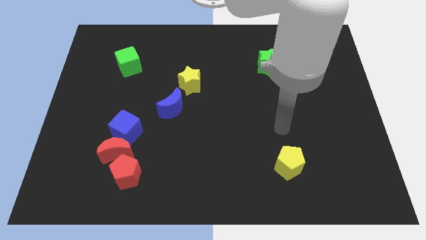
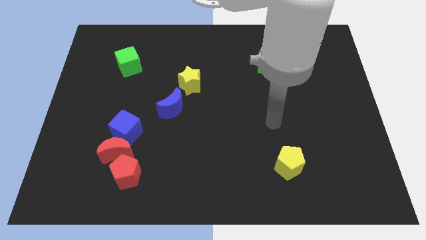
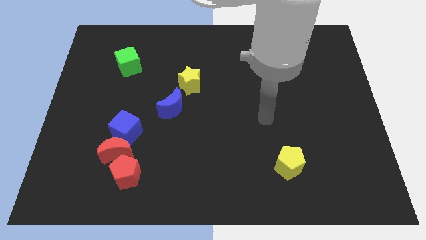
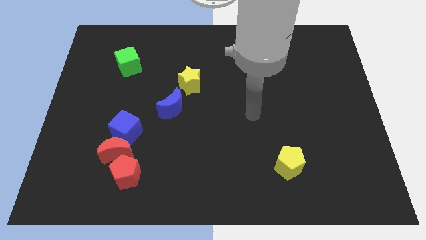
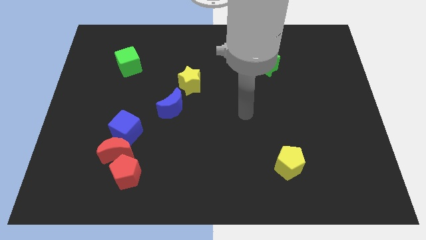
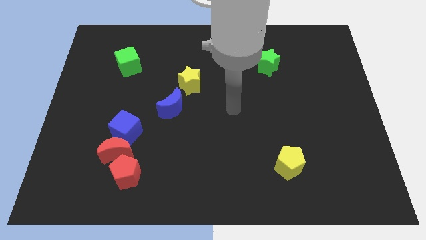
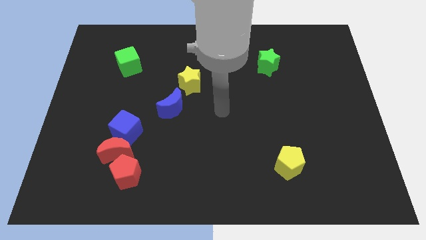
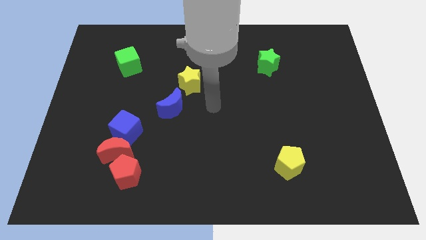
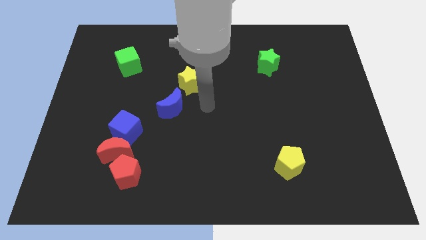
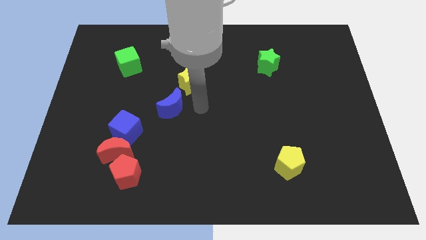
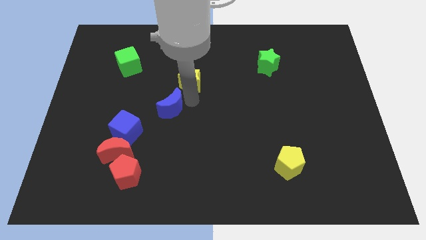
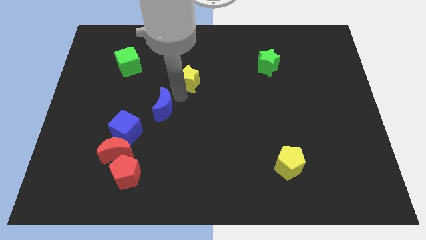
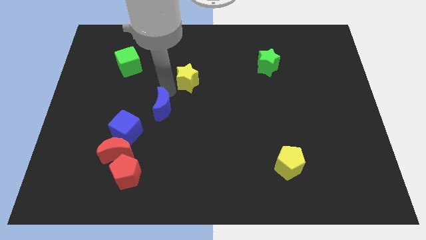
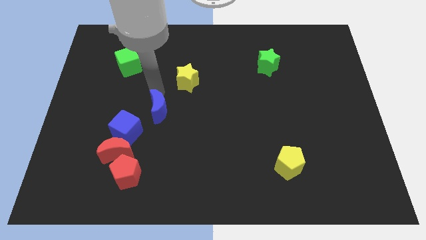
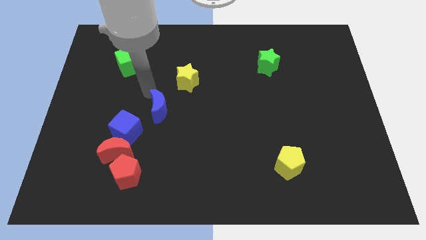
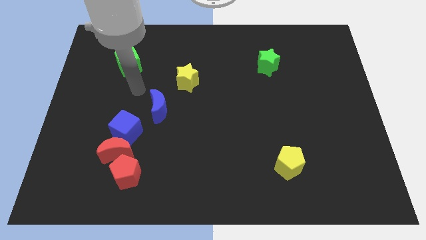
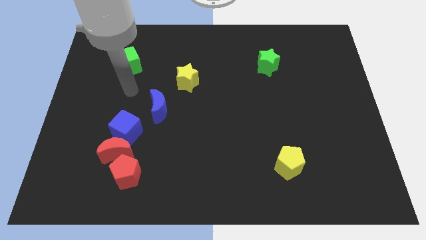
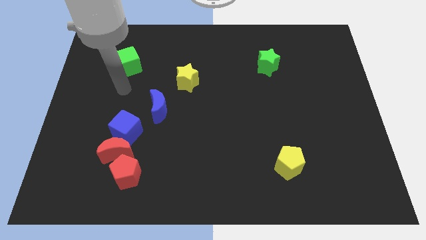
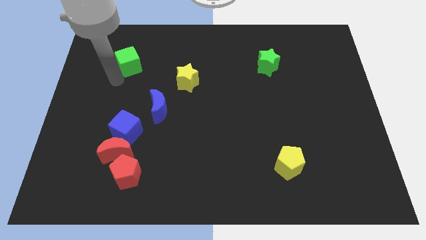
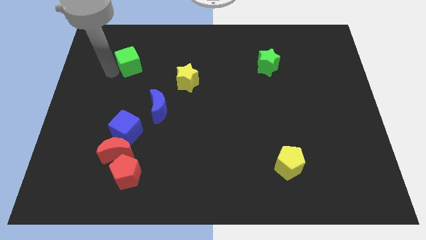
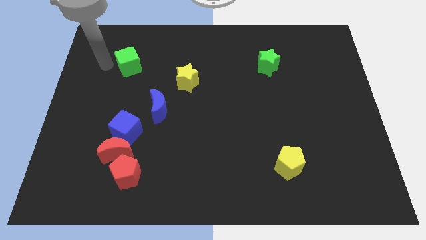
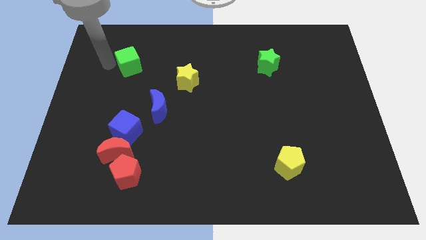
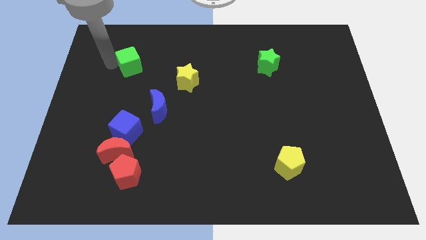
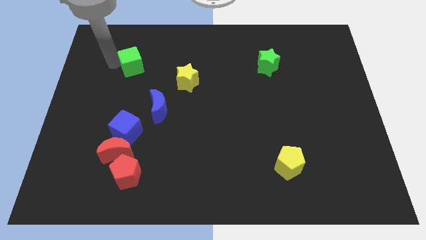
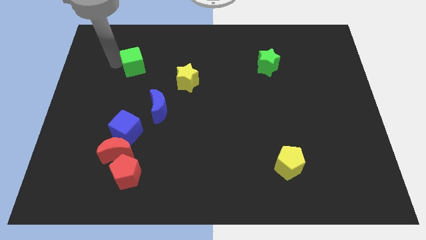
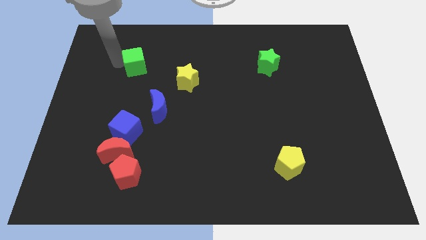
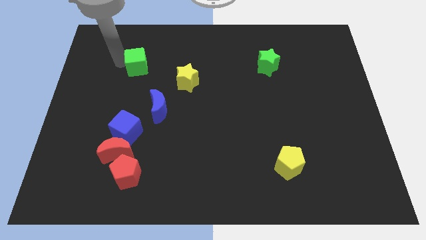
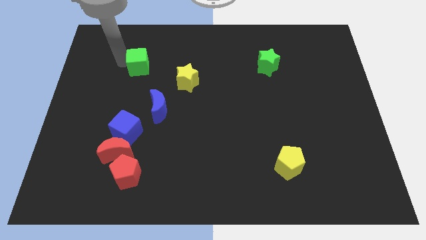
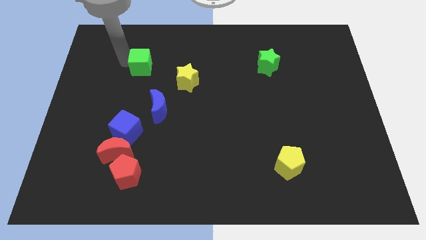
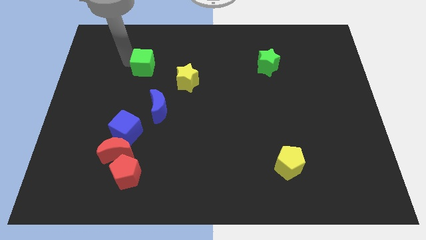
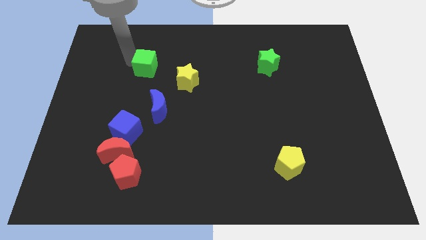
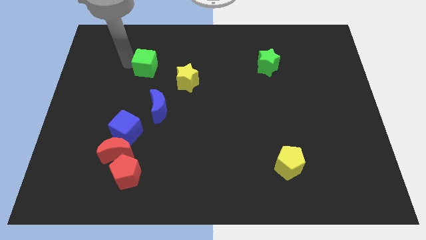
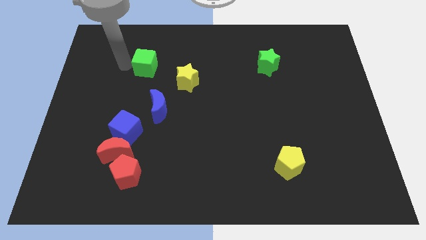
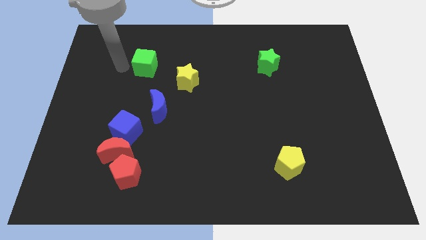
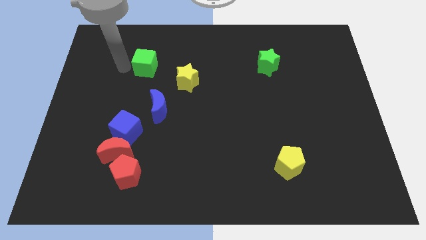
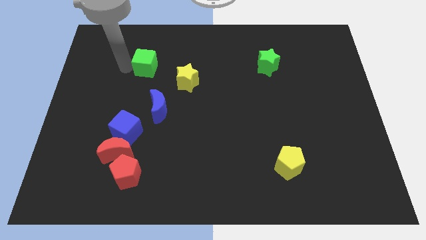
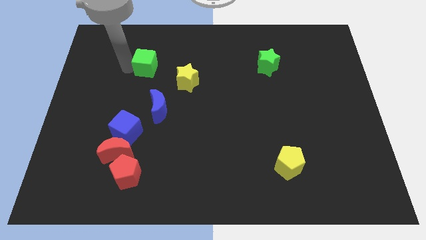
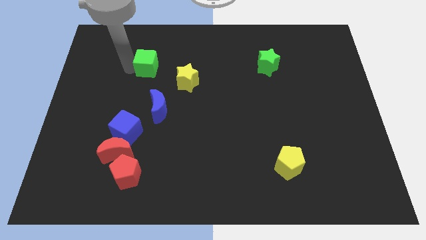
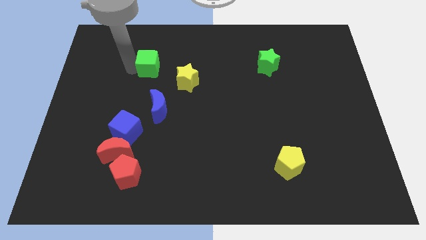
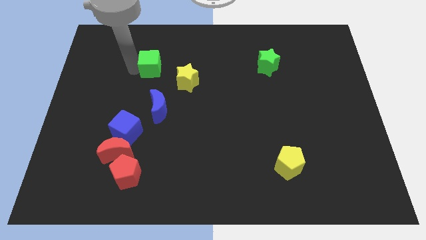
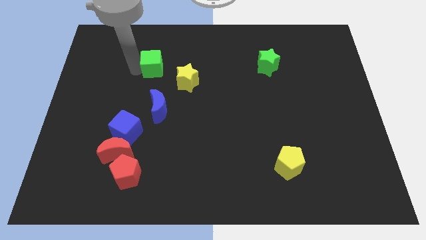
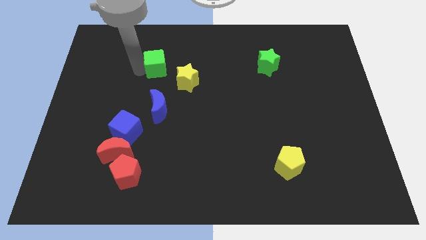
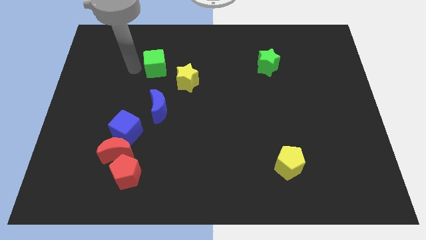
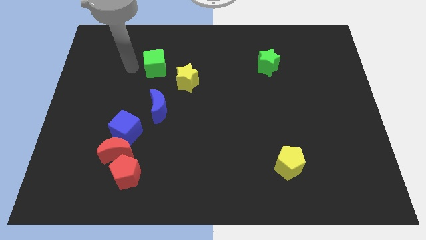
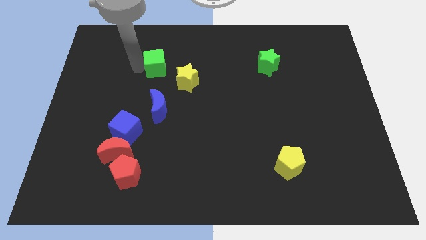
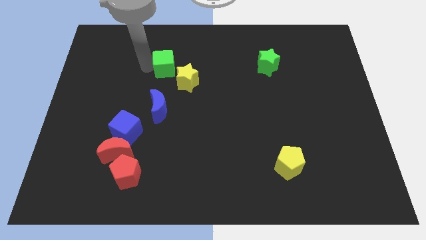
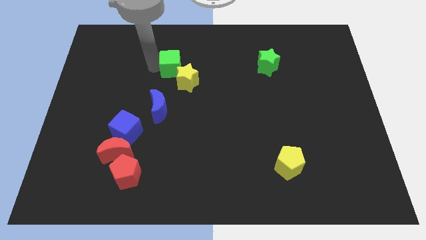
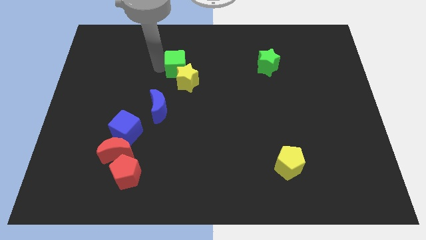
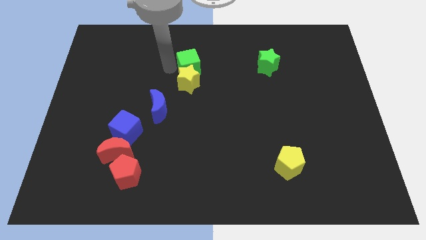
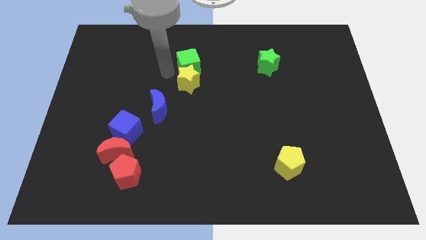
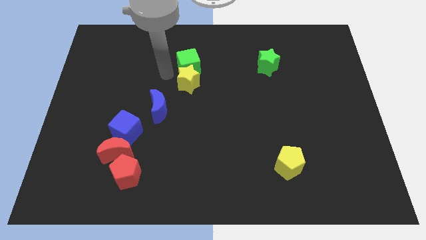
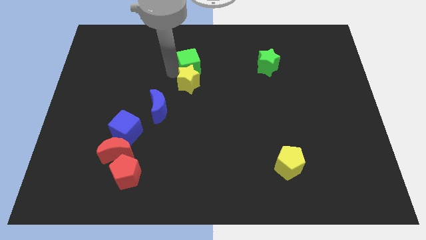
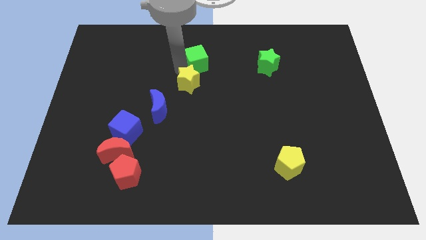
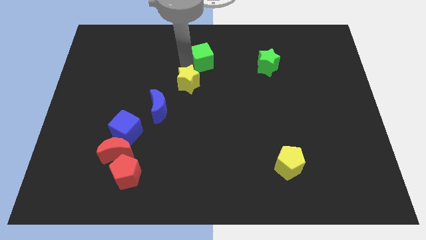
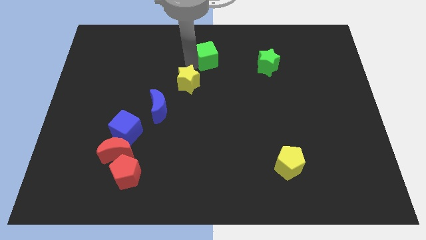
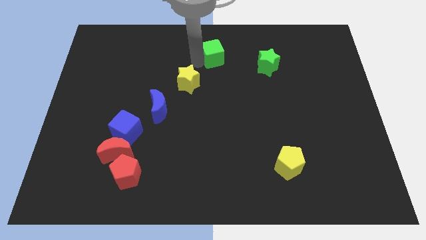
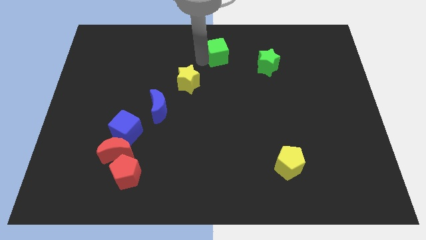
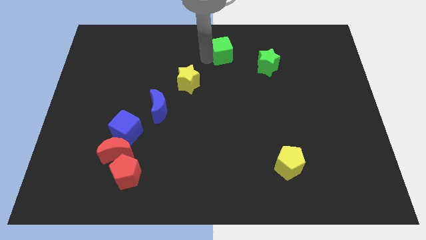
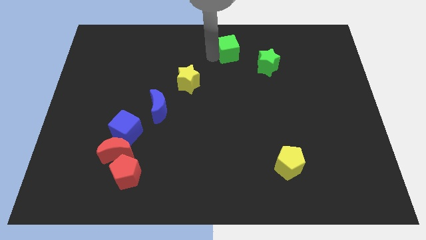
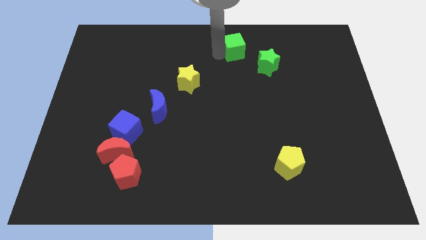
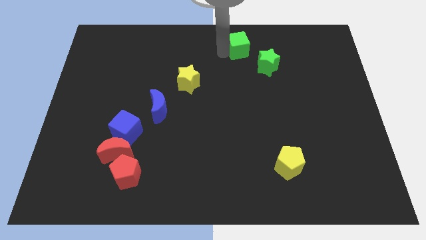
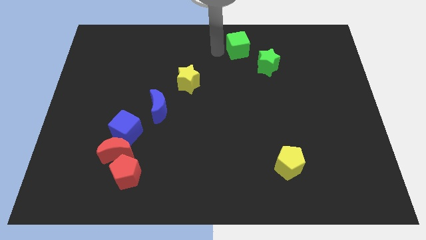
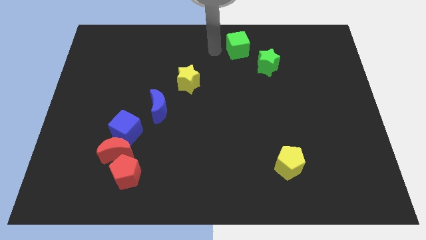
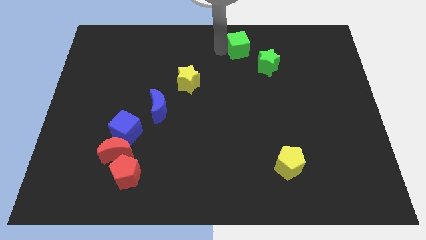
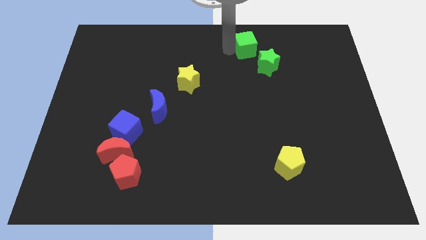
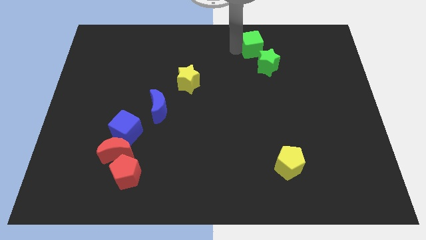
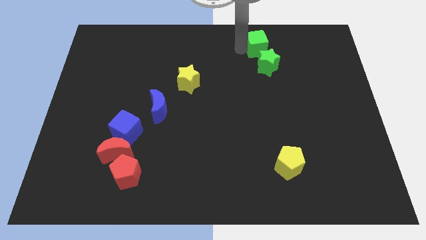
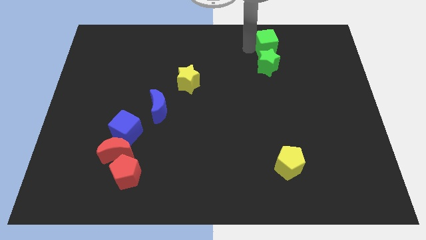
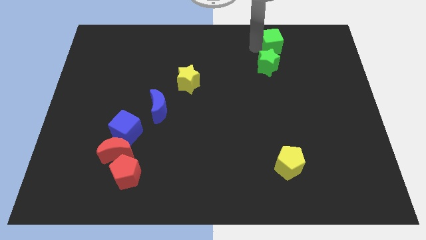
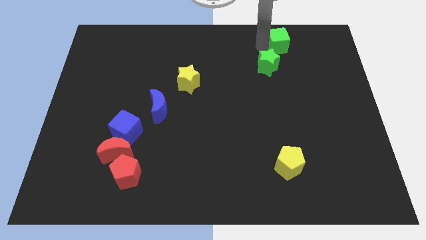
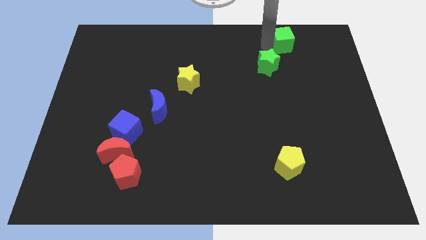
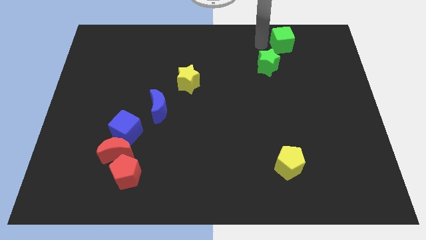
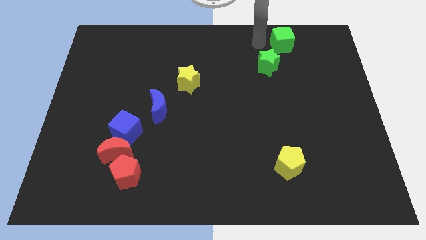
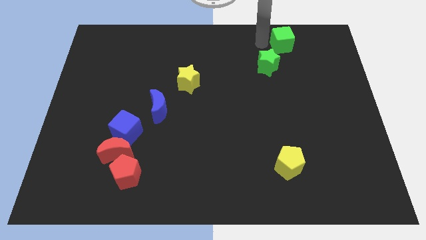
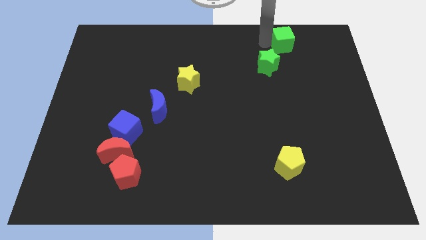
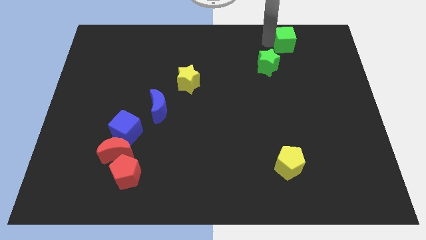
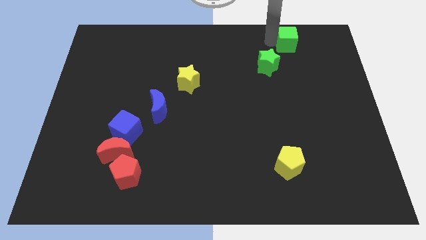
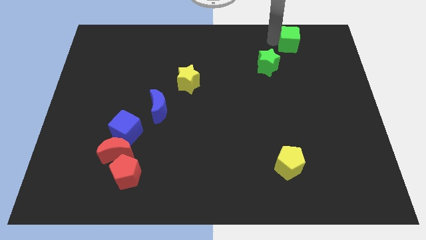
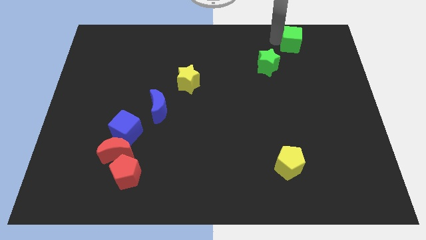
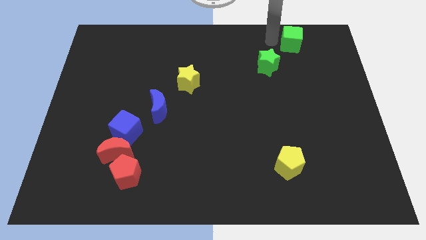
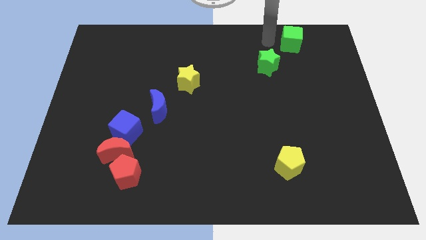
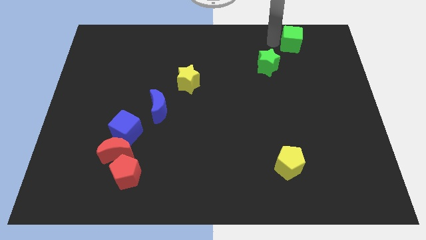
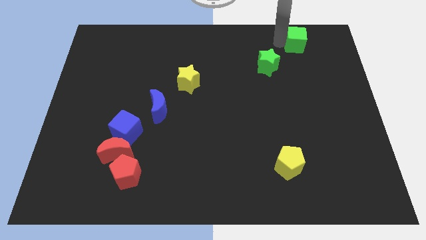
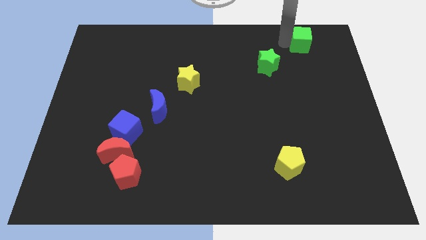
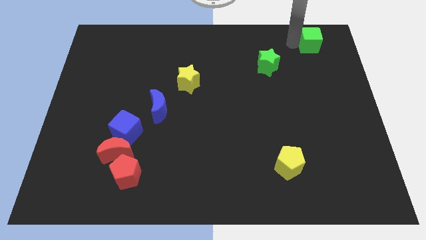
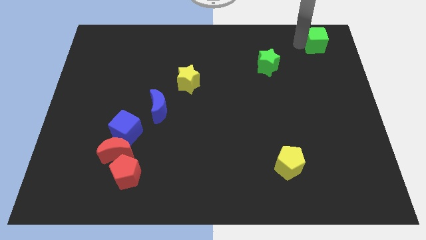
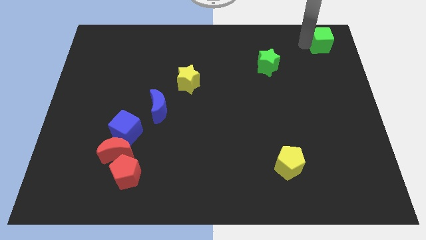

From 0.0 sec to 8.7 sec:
slide the green cube to the top right
